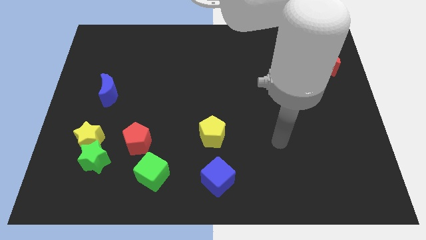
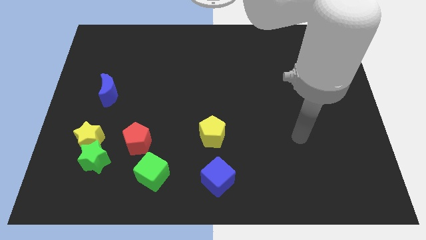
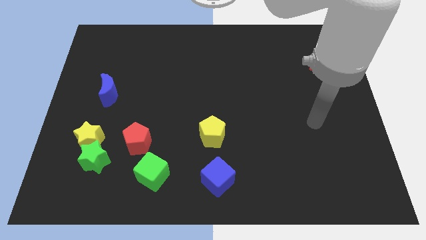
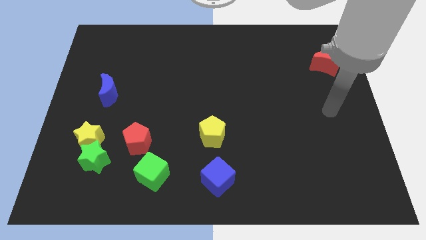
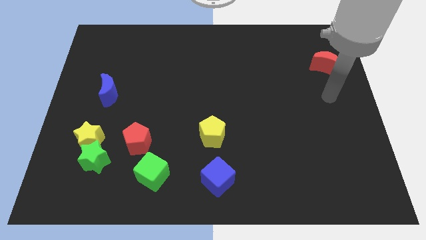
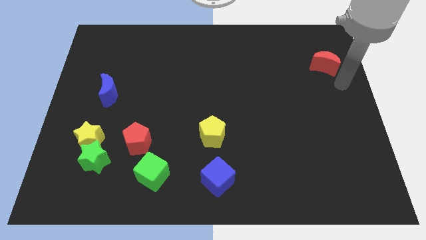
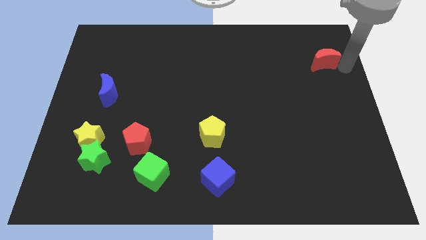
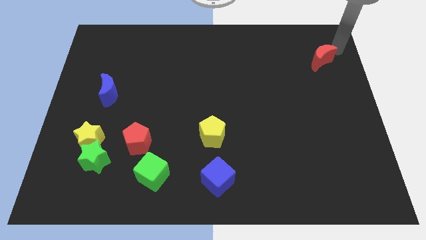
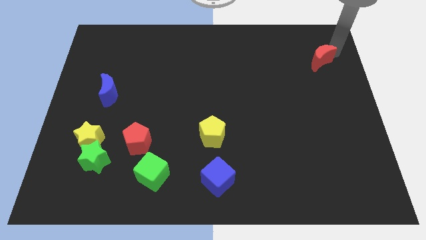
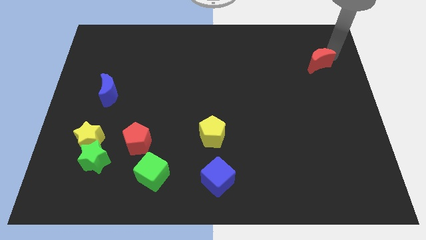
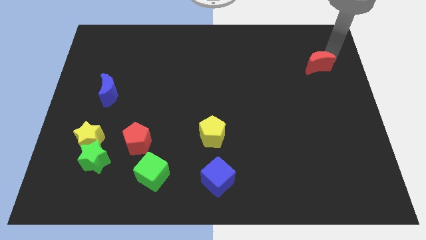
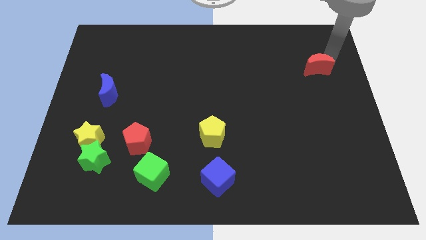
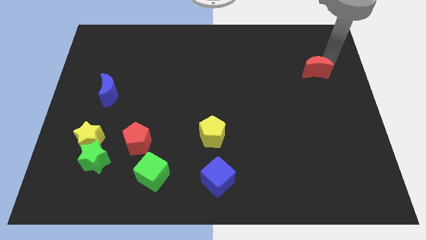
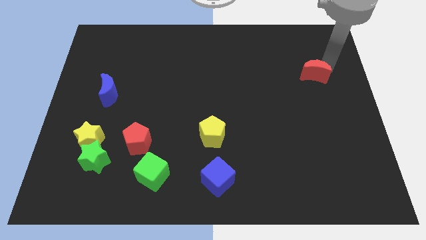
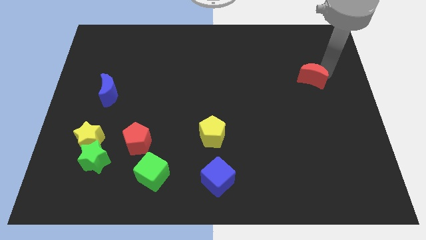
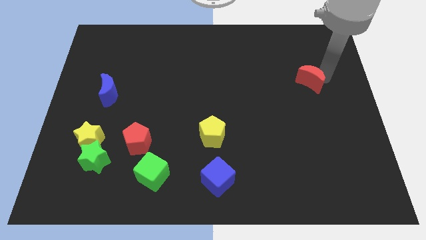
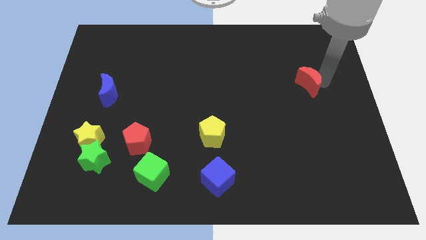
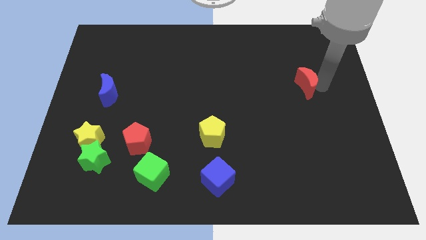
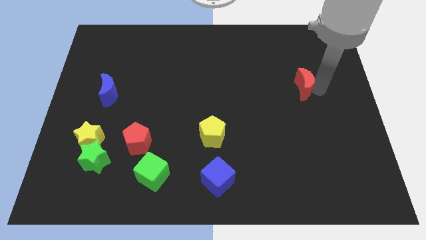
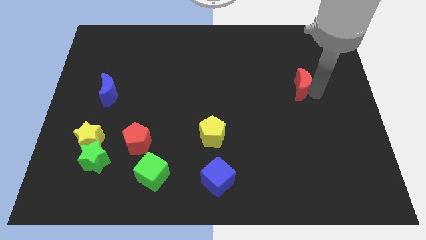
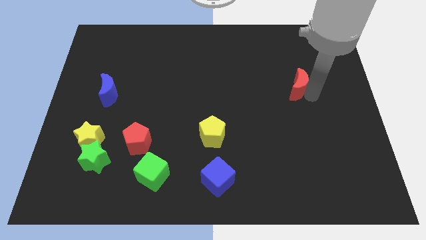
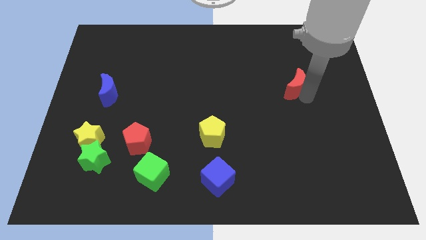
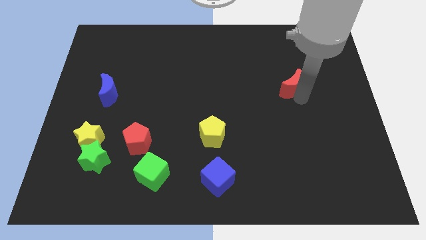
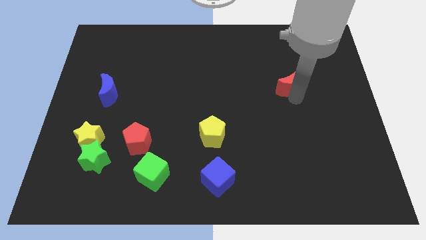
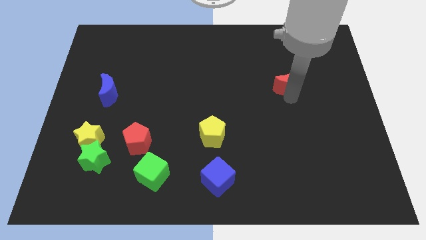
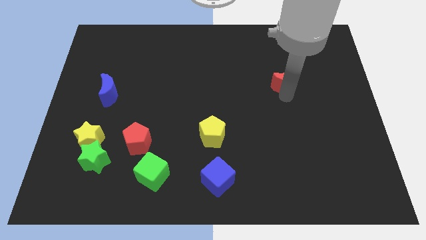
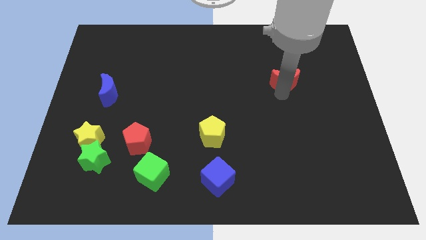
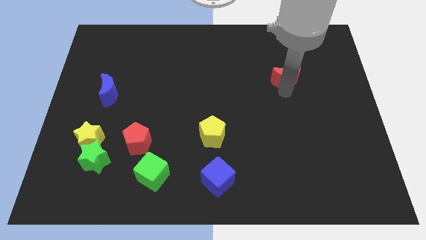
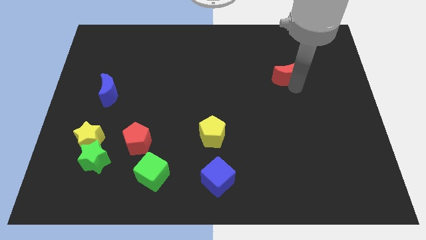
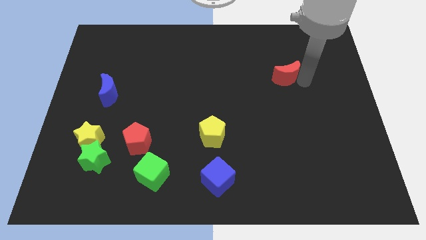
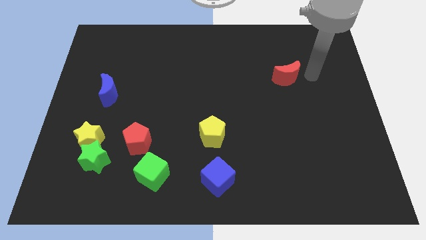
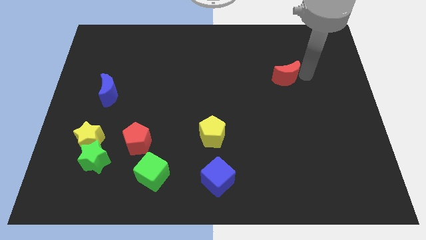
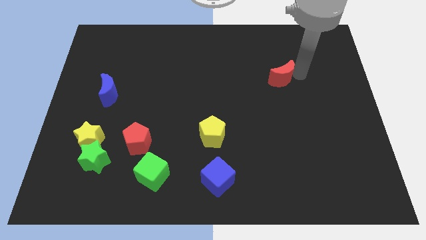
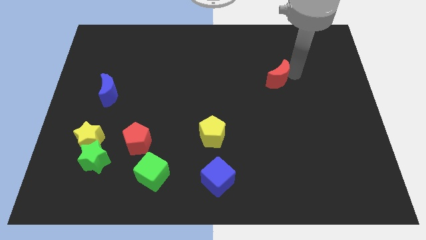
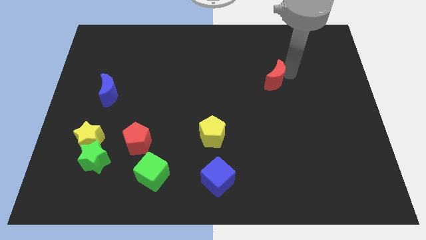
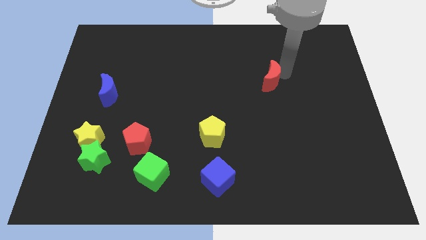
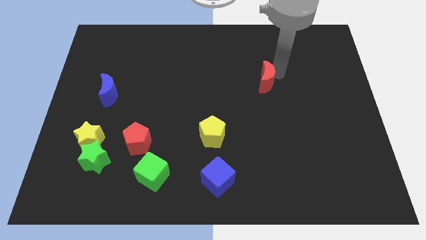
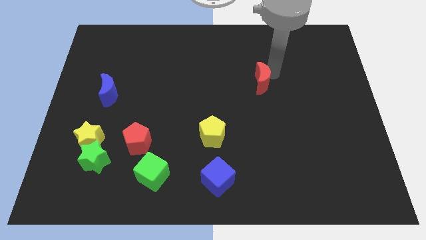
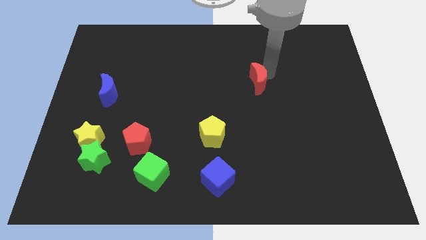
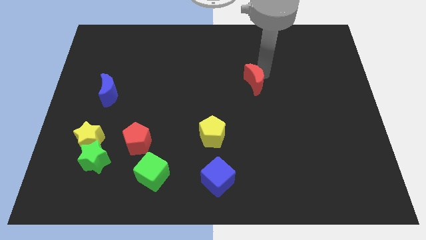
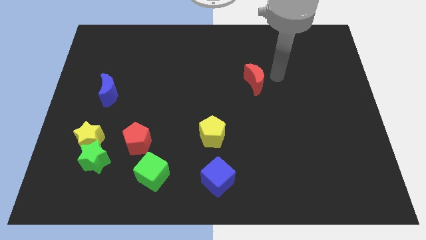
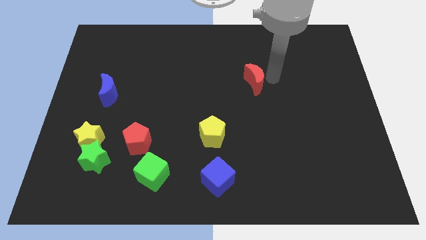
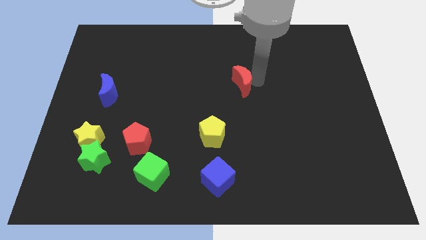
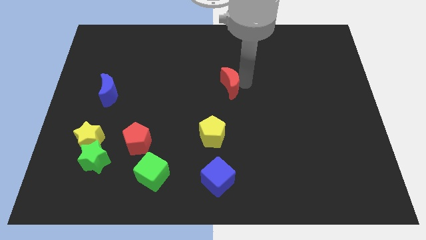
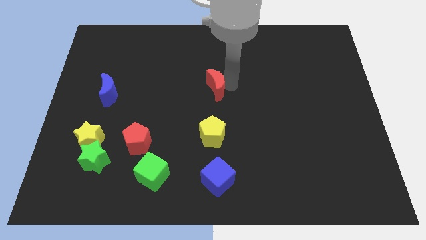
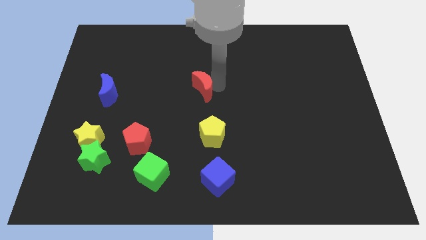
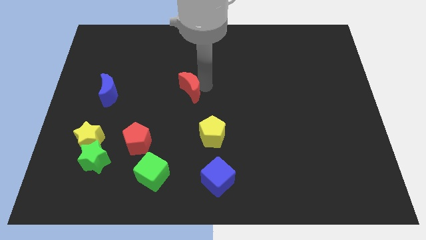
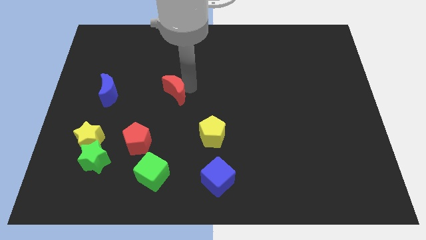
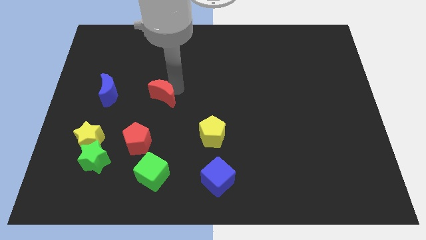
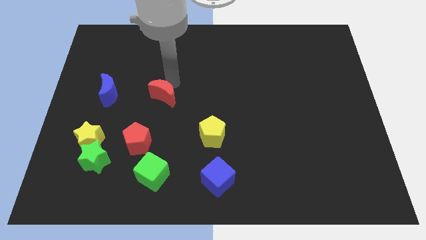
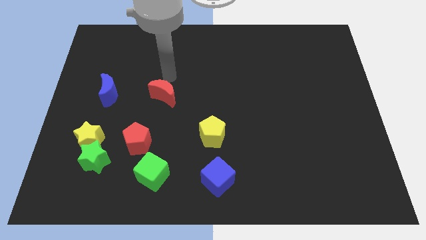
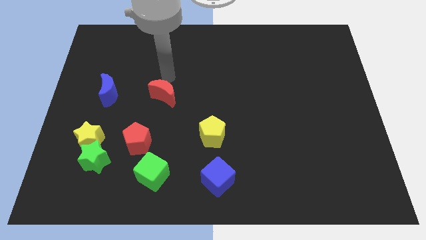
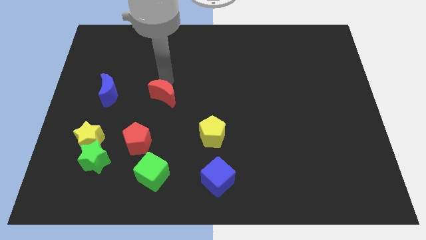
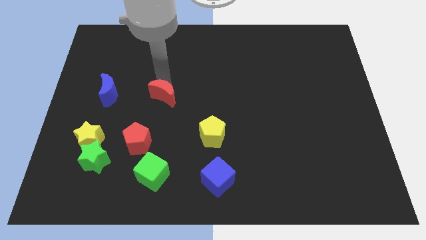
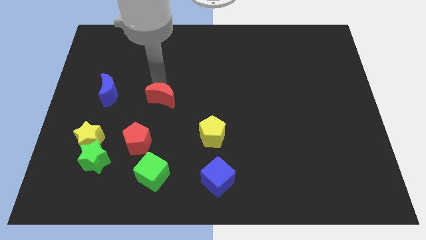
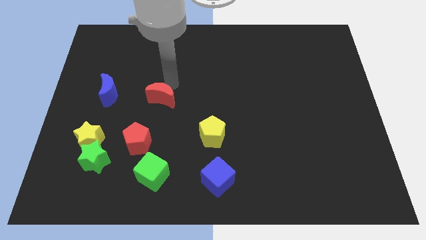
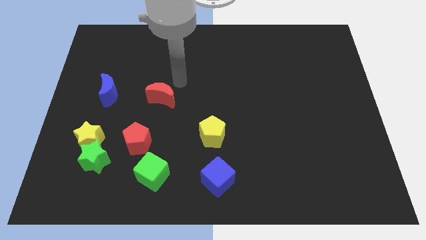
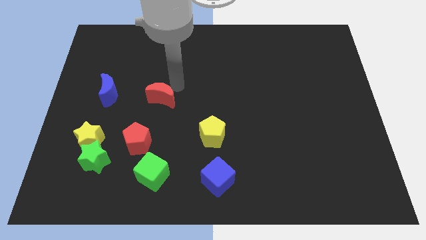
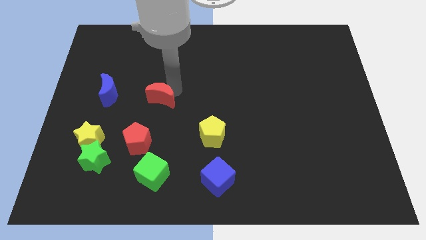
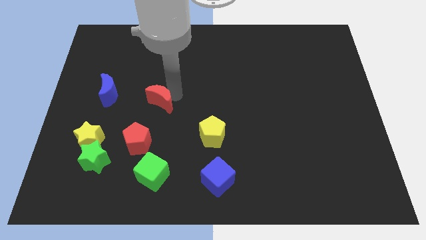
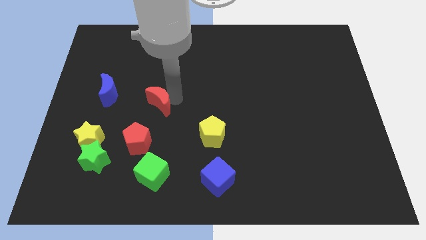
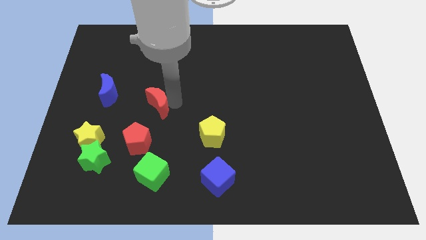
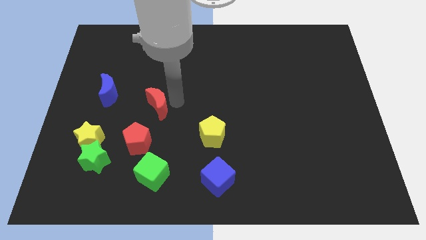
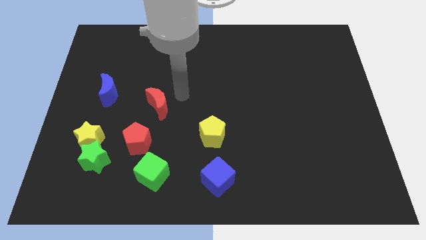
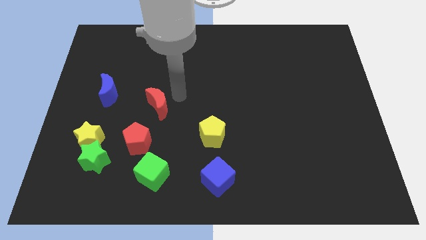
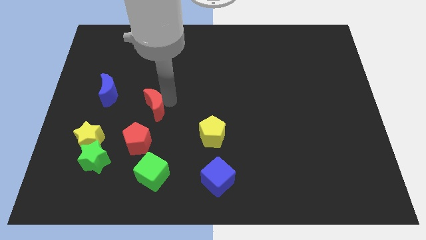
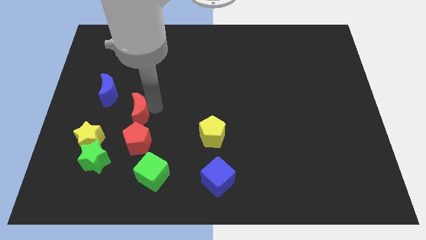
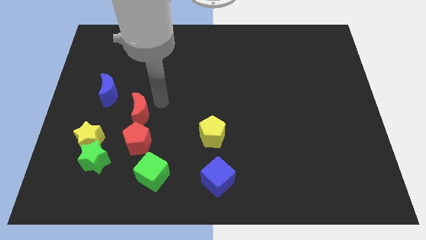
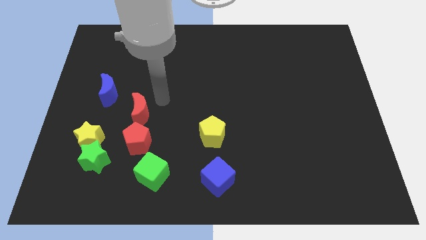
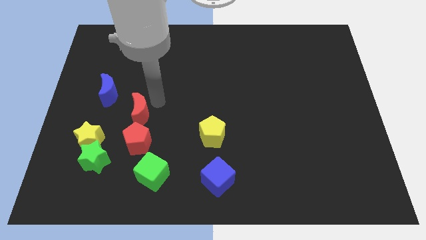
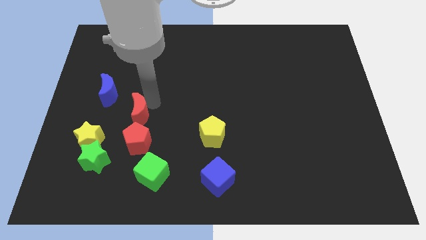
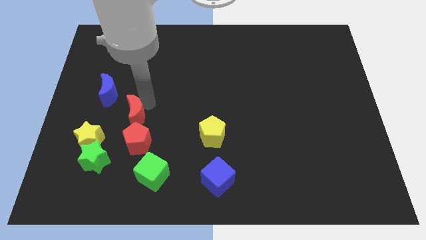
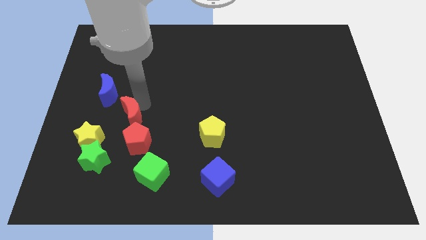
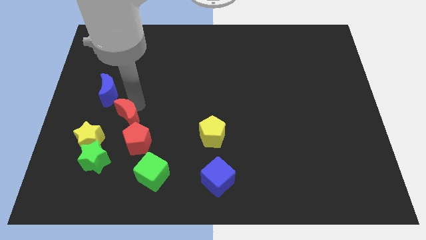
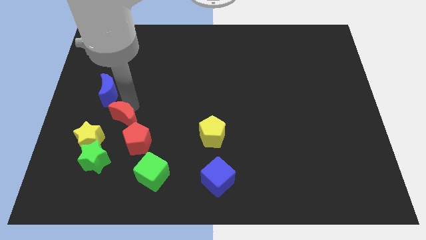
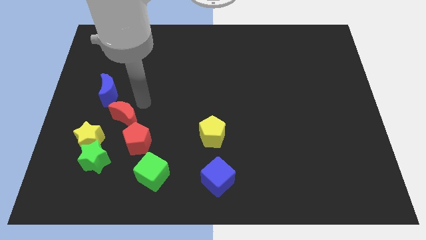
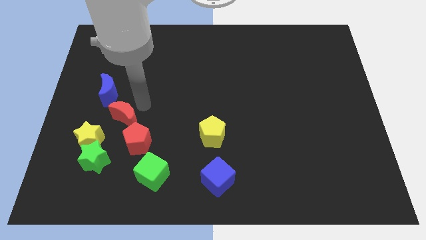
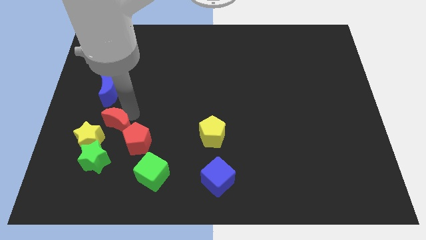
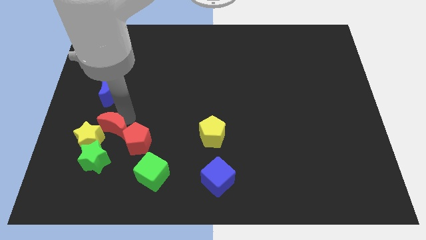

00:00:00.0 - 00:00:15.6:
slide the red moon close to the yellow star
